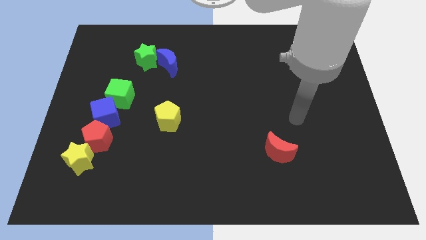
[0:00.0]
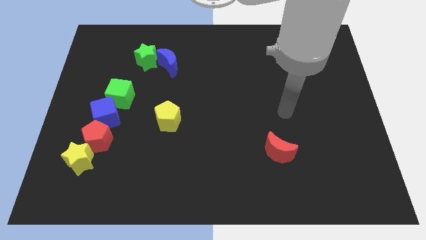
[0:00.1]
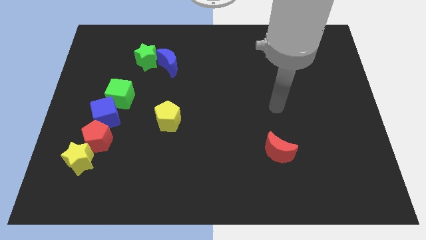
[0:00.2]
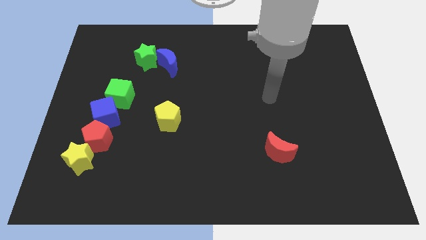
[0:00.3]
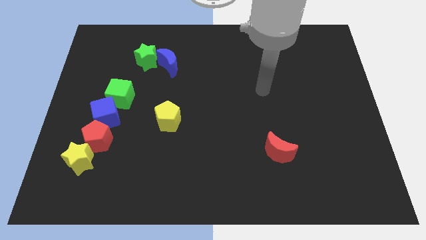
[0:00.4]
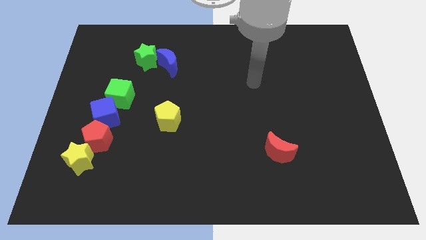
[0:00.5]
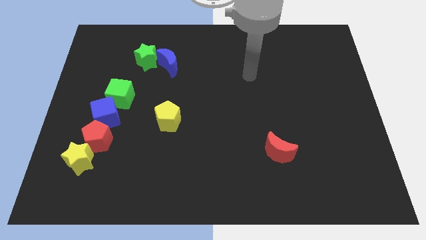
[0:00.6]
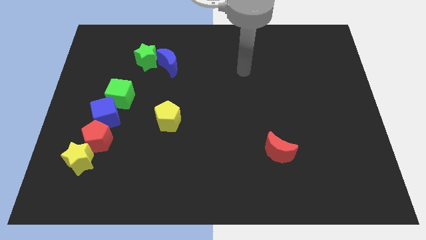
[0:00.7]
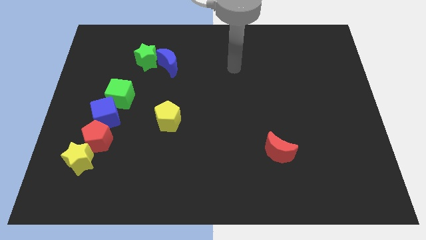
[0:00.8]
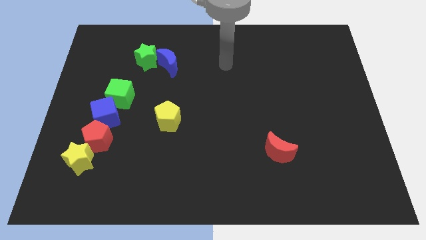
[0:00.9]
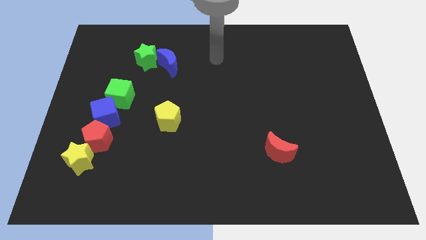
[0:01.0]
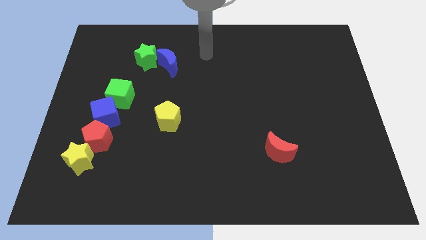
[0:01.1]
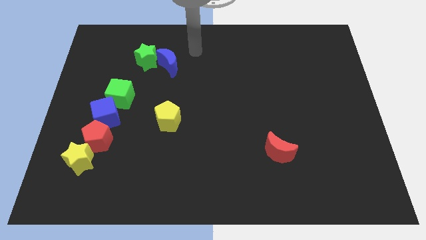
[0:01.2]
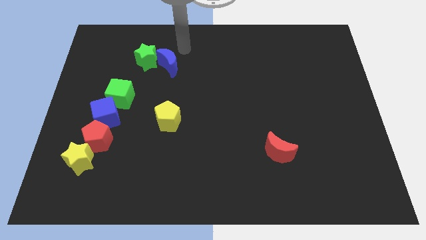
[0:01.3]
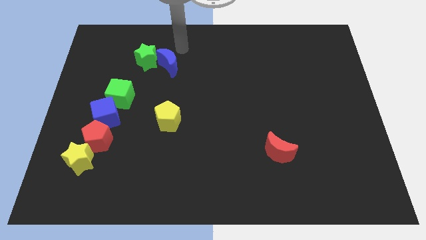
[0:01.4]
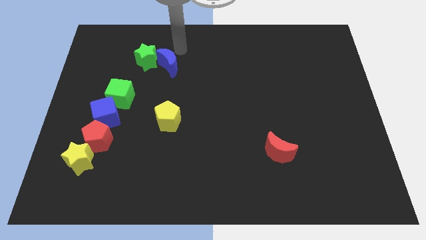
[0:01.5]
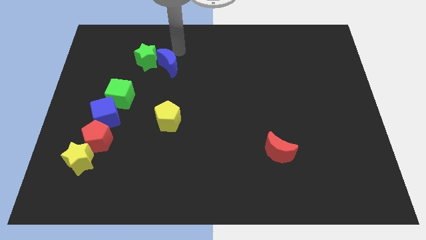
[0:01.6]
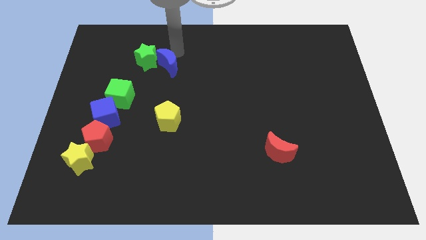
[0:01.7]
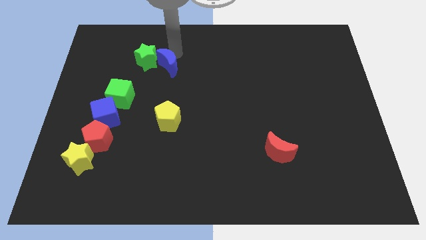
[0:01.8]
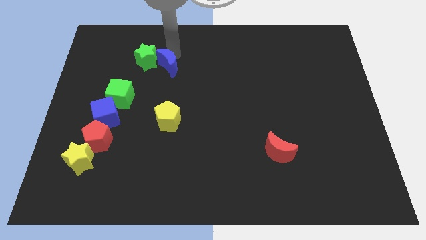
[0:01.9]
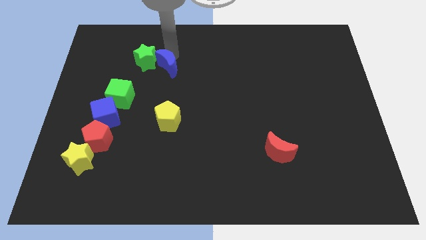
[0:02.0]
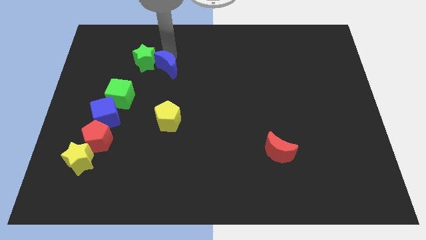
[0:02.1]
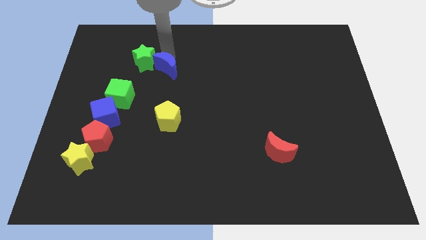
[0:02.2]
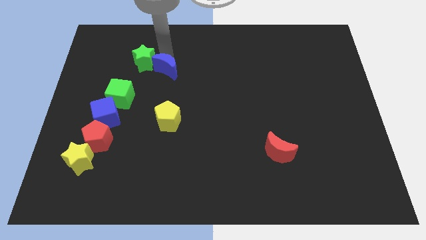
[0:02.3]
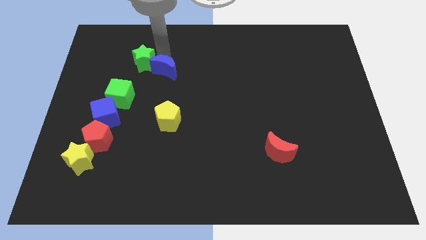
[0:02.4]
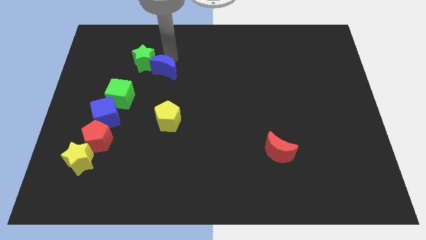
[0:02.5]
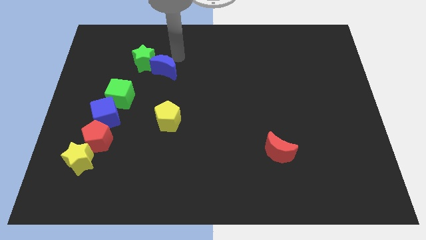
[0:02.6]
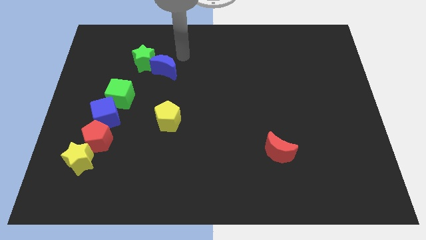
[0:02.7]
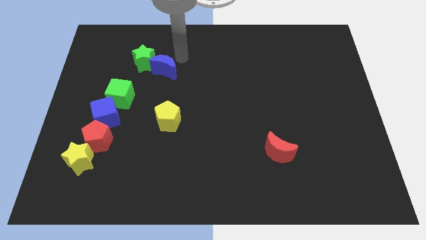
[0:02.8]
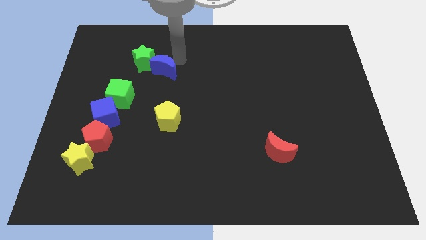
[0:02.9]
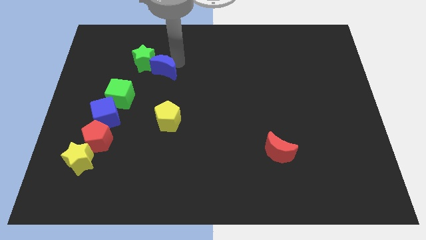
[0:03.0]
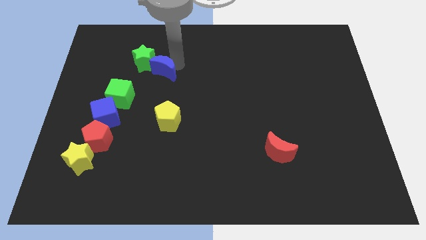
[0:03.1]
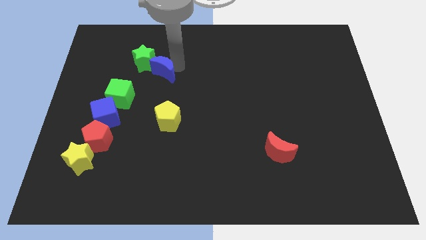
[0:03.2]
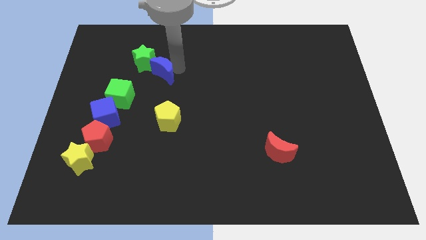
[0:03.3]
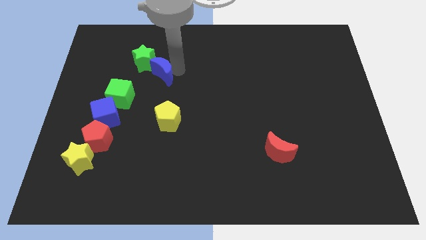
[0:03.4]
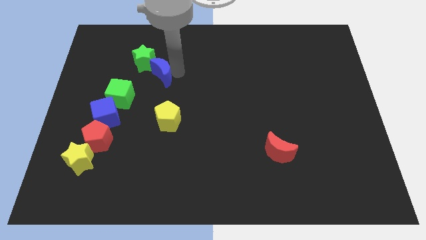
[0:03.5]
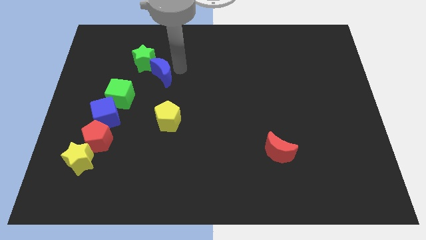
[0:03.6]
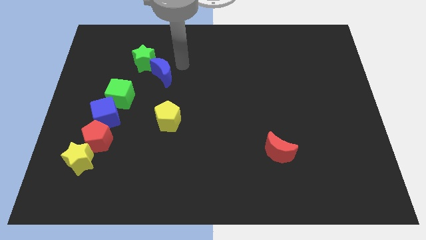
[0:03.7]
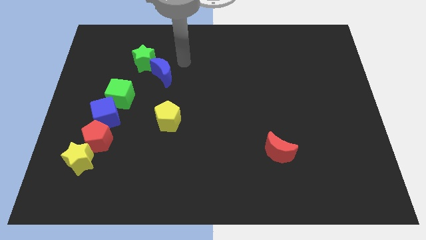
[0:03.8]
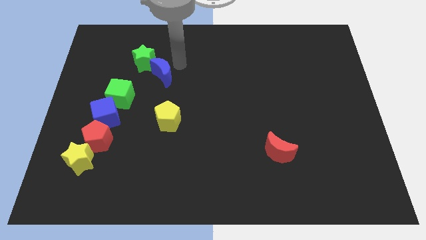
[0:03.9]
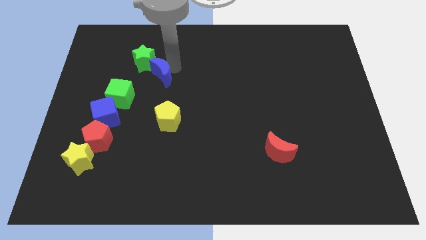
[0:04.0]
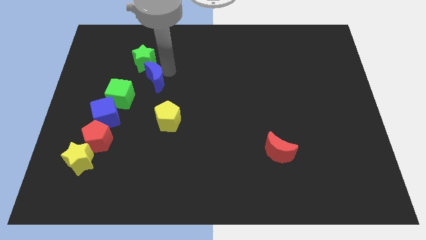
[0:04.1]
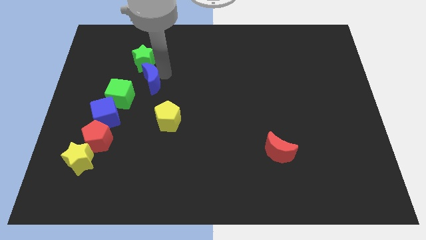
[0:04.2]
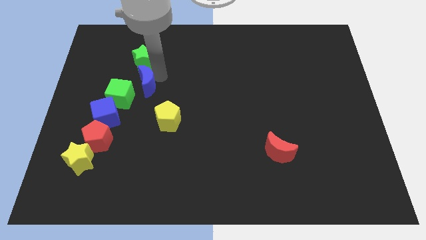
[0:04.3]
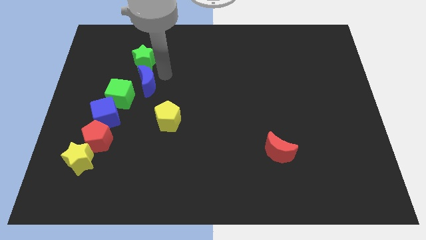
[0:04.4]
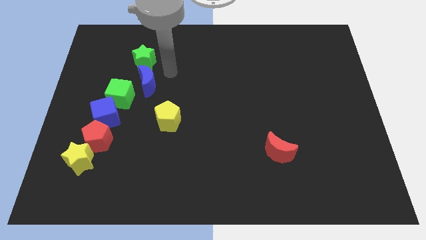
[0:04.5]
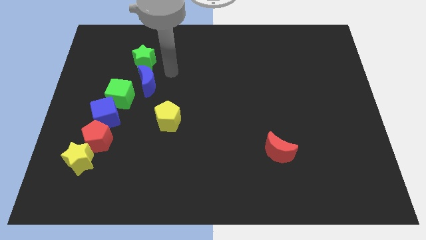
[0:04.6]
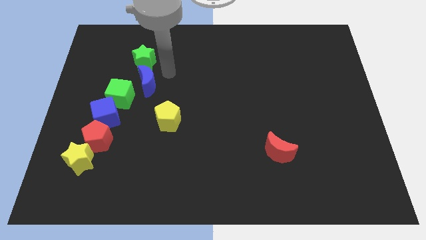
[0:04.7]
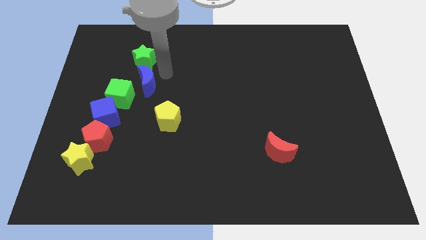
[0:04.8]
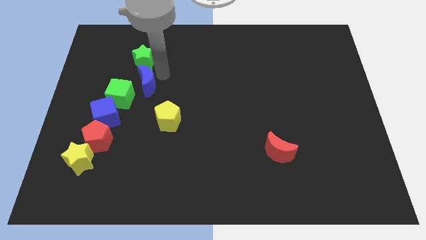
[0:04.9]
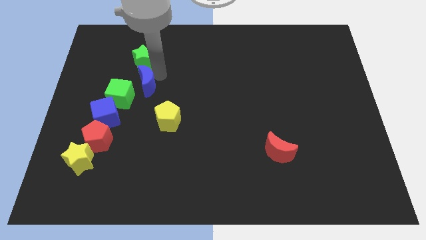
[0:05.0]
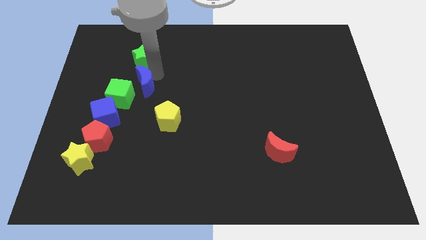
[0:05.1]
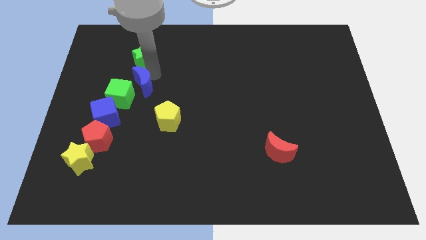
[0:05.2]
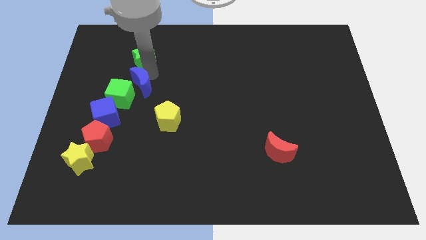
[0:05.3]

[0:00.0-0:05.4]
move the blue moon towards the green cube

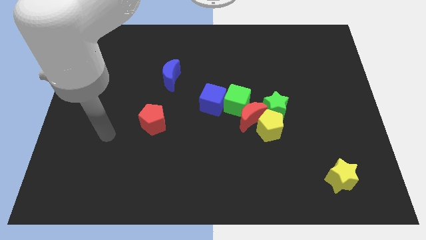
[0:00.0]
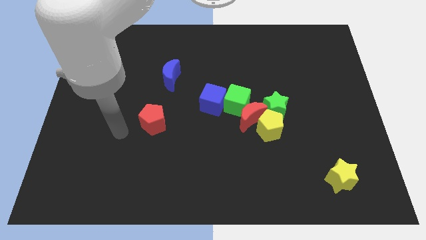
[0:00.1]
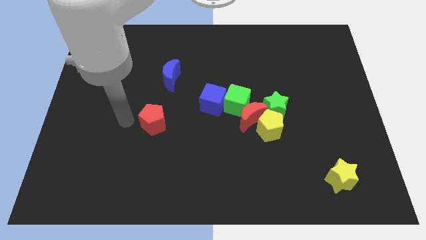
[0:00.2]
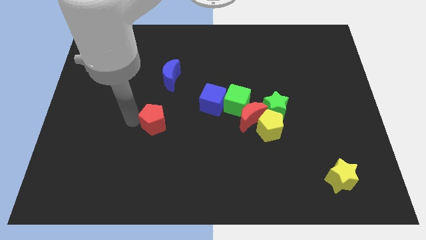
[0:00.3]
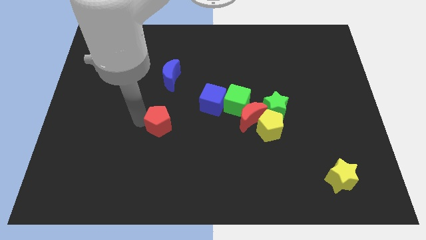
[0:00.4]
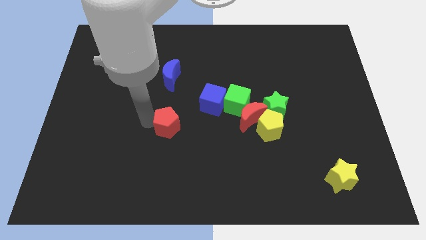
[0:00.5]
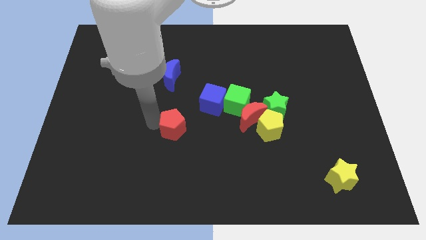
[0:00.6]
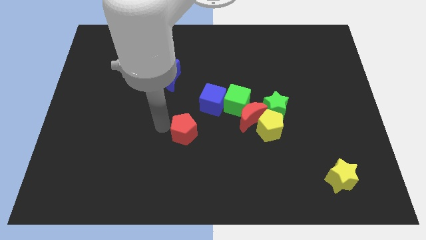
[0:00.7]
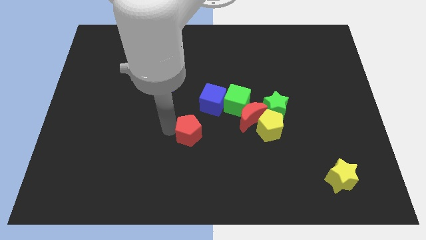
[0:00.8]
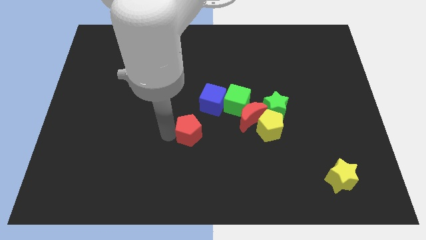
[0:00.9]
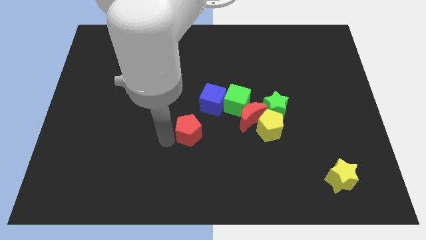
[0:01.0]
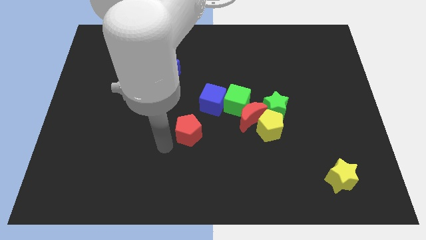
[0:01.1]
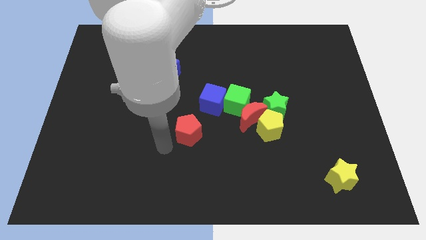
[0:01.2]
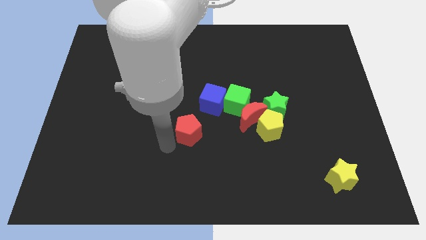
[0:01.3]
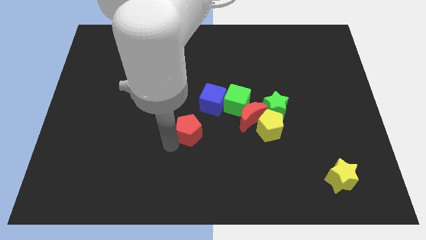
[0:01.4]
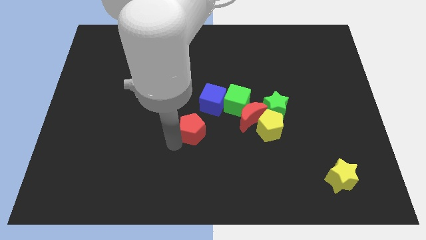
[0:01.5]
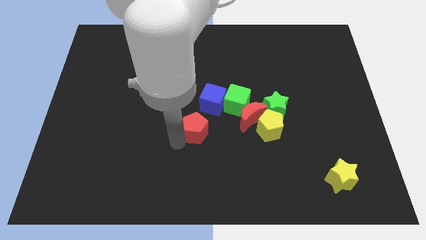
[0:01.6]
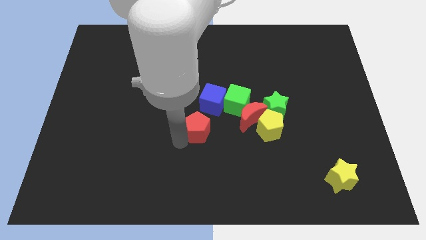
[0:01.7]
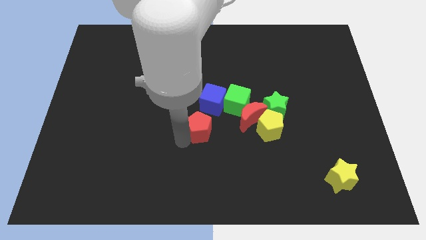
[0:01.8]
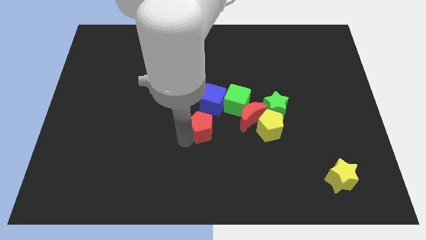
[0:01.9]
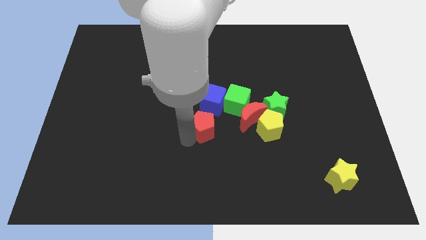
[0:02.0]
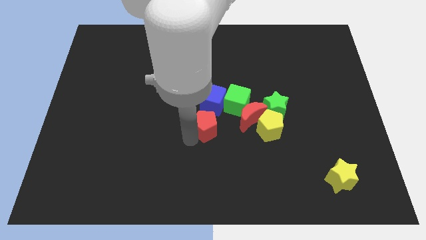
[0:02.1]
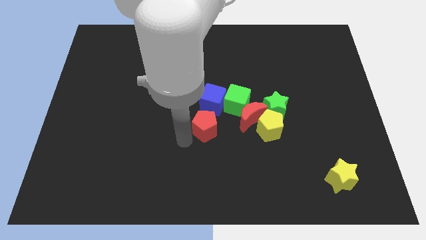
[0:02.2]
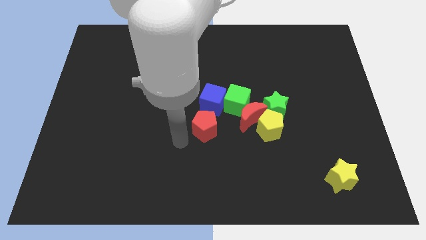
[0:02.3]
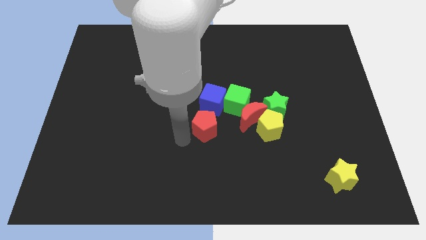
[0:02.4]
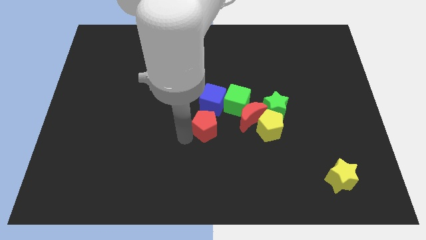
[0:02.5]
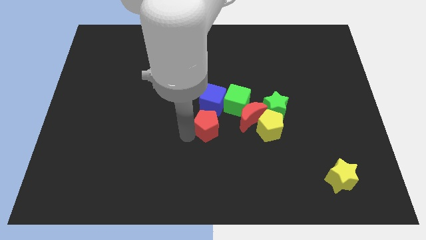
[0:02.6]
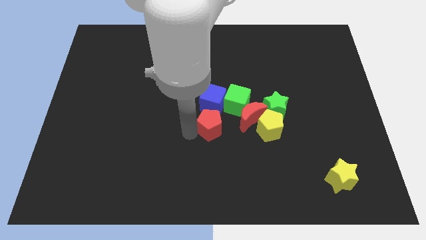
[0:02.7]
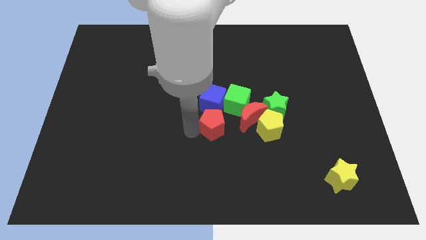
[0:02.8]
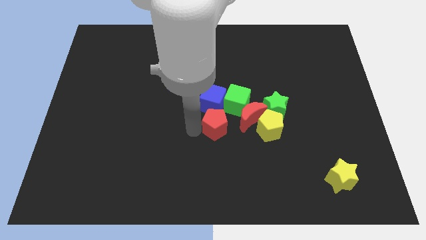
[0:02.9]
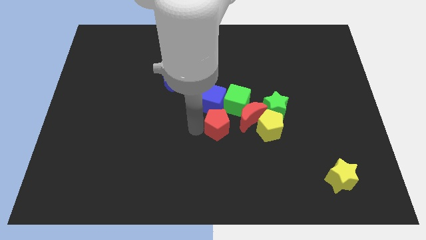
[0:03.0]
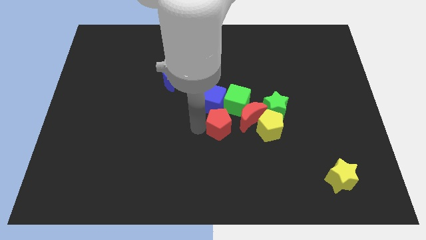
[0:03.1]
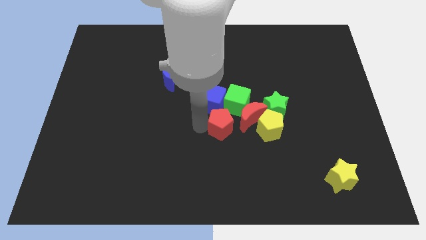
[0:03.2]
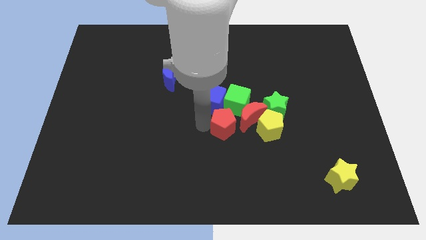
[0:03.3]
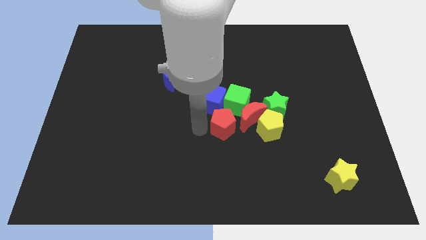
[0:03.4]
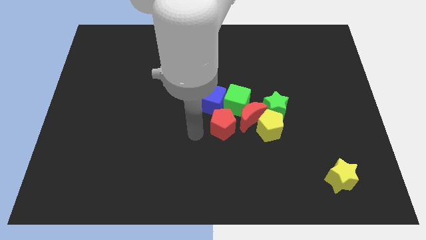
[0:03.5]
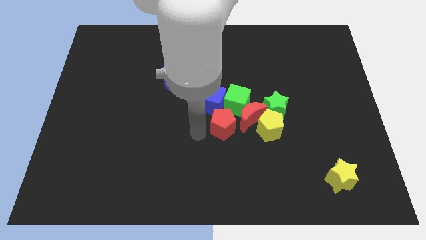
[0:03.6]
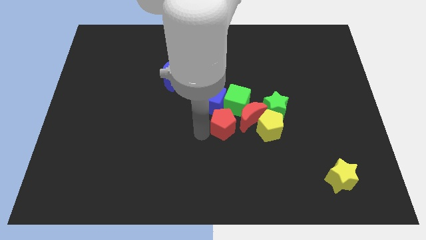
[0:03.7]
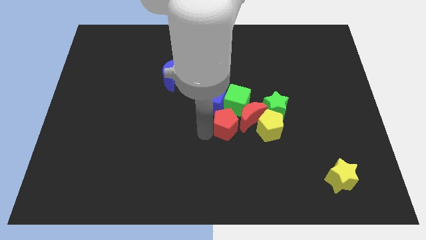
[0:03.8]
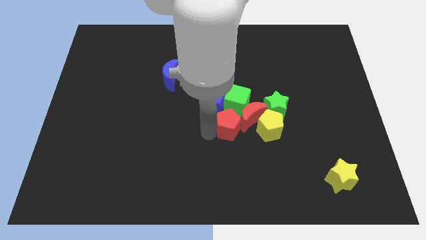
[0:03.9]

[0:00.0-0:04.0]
push the red pentagon close to the red moon
